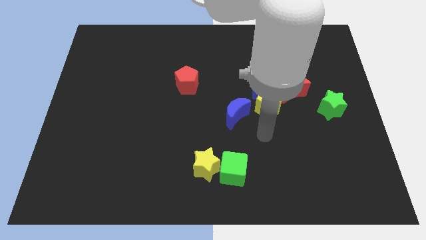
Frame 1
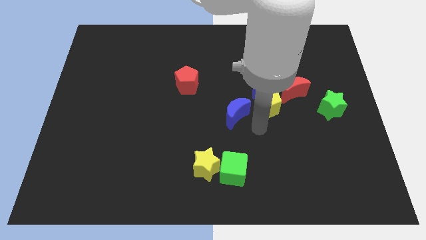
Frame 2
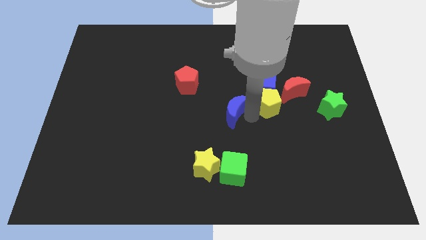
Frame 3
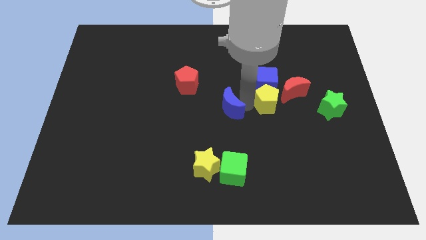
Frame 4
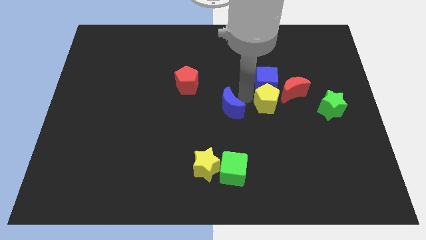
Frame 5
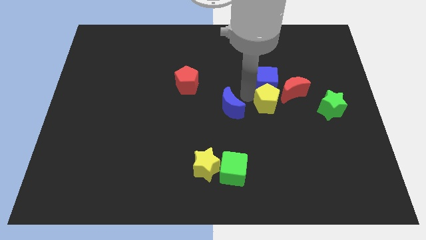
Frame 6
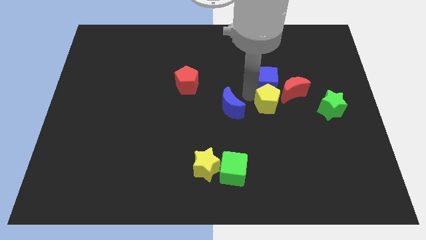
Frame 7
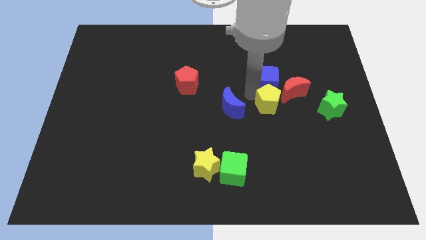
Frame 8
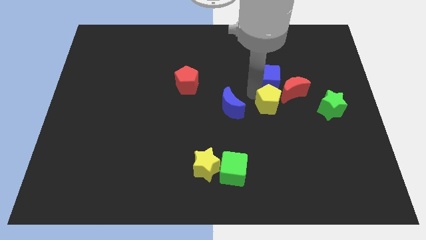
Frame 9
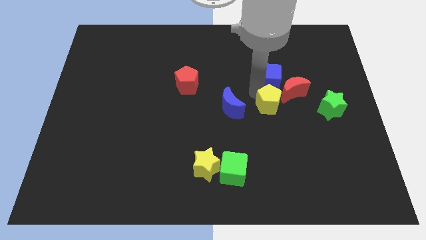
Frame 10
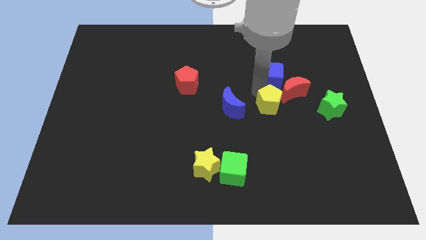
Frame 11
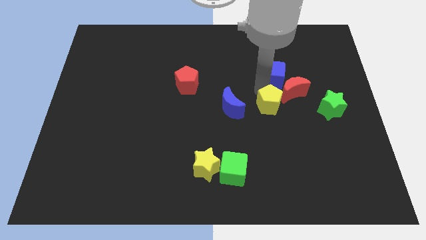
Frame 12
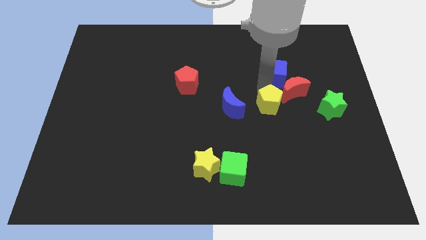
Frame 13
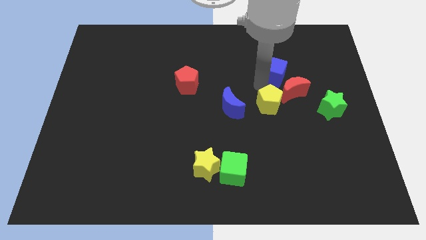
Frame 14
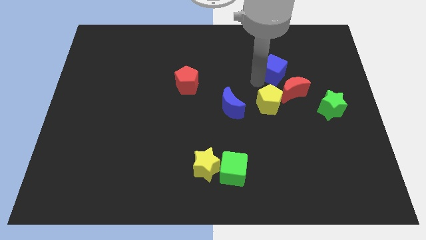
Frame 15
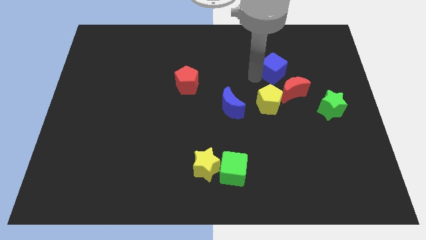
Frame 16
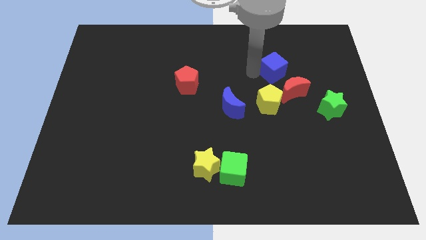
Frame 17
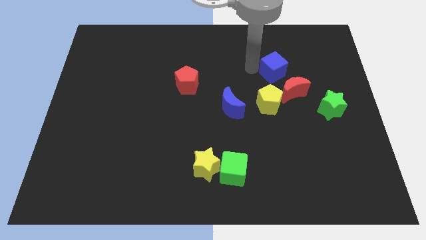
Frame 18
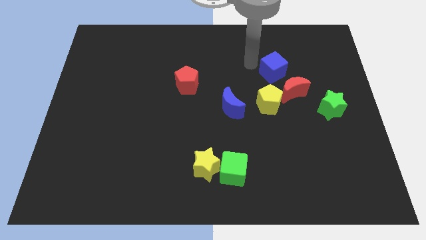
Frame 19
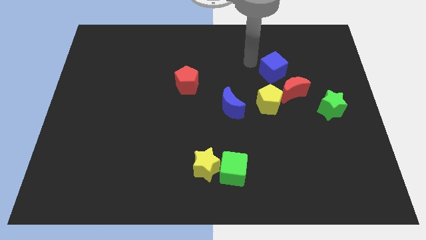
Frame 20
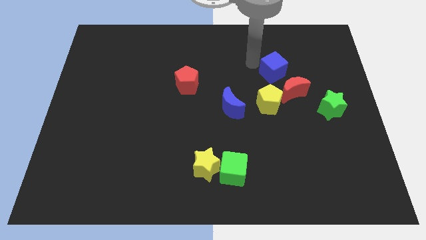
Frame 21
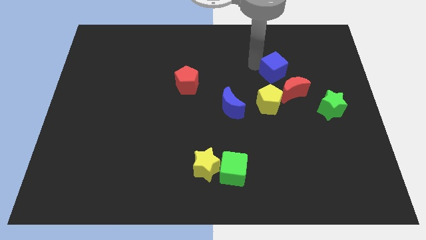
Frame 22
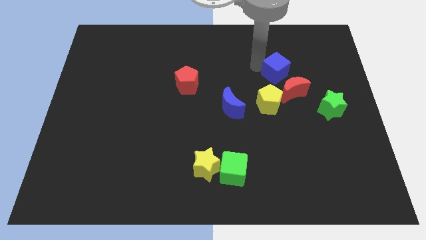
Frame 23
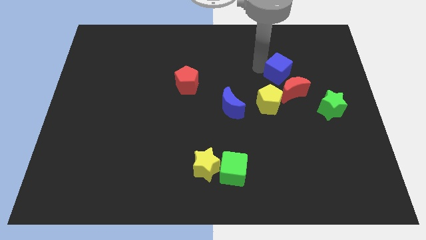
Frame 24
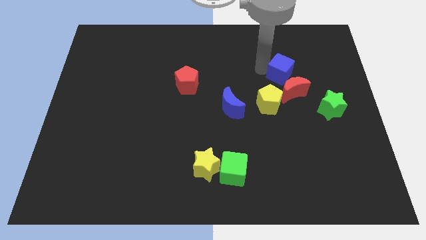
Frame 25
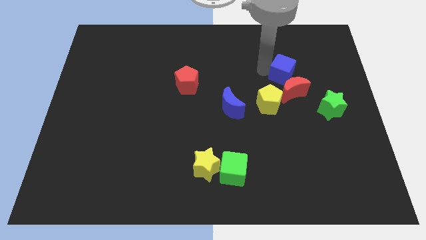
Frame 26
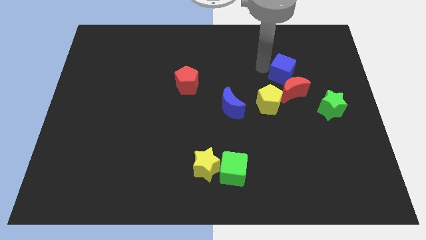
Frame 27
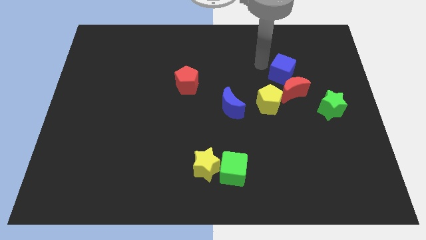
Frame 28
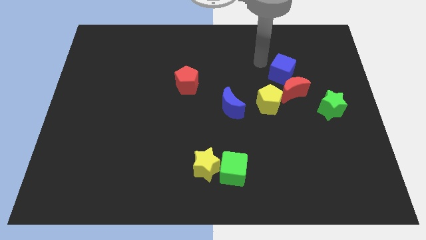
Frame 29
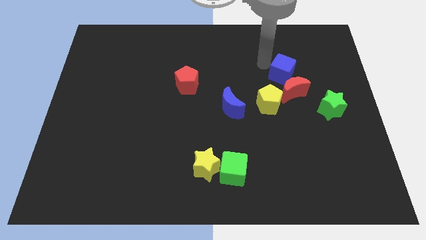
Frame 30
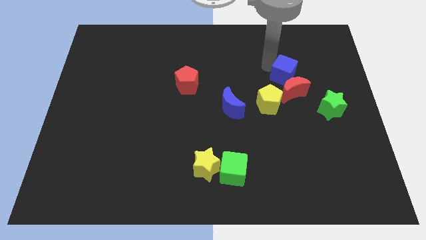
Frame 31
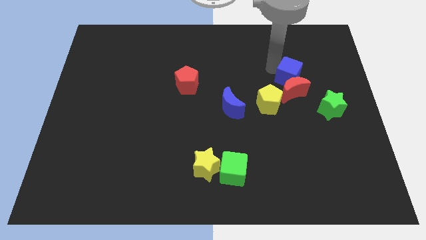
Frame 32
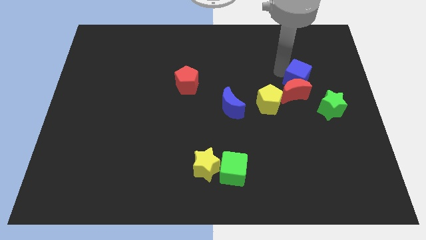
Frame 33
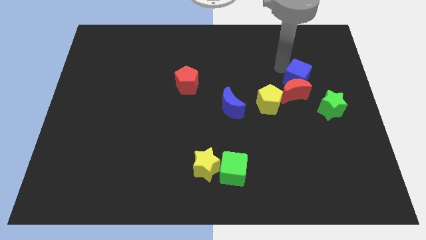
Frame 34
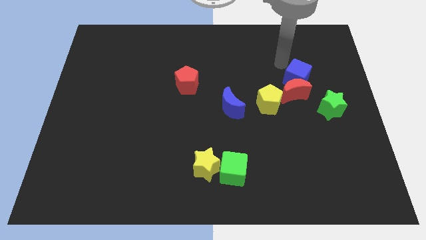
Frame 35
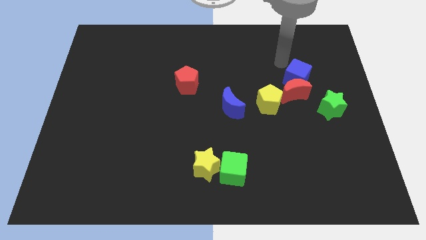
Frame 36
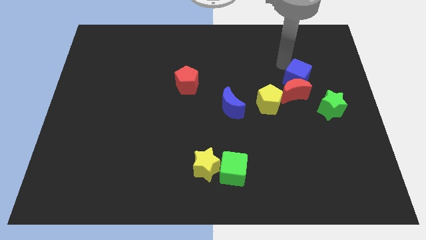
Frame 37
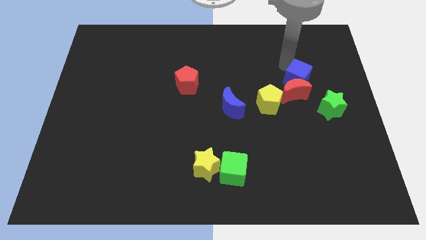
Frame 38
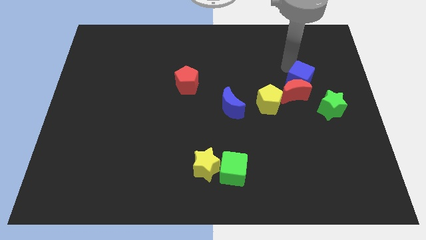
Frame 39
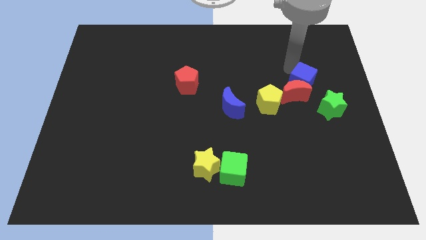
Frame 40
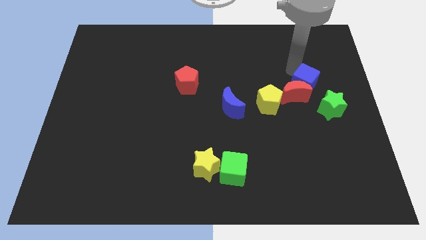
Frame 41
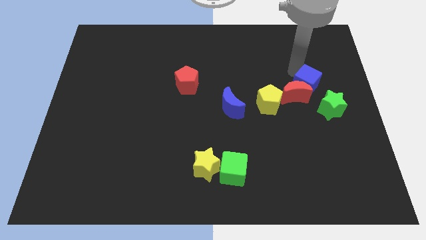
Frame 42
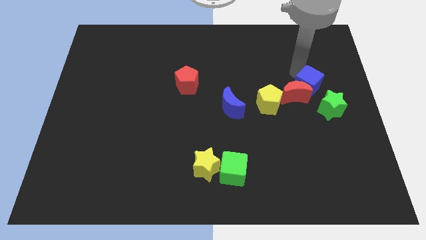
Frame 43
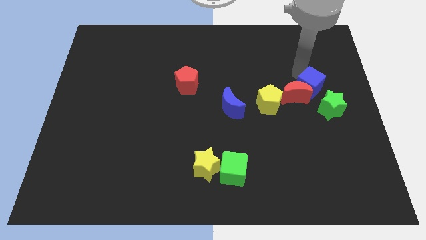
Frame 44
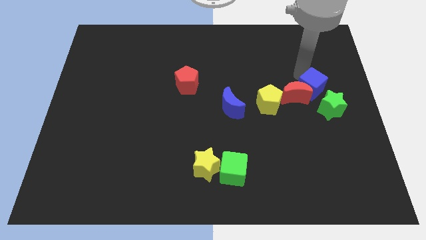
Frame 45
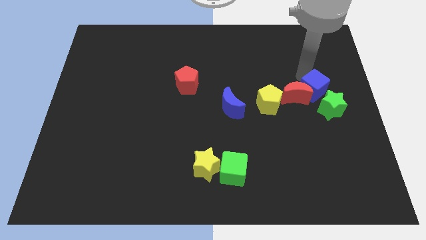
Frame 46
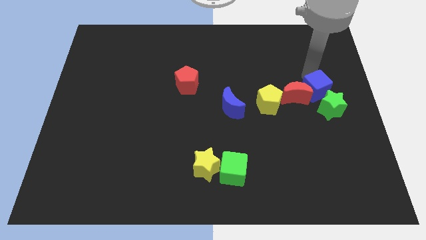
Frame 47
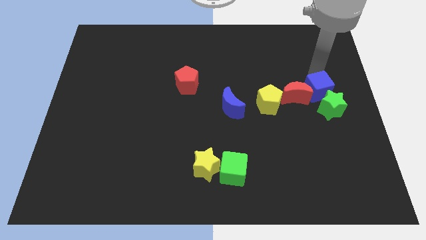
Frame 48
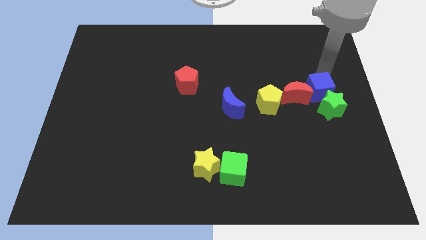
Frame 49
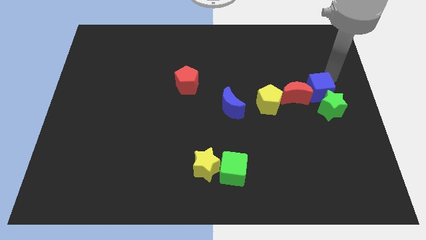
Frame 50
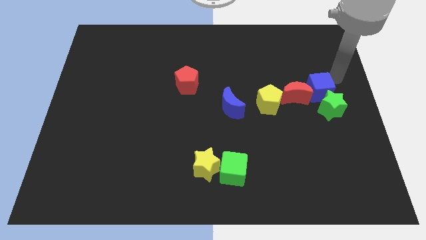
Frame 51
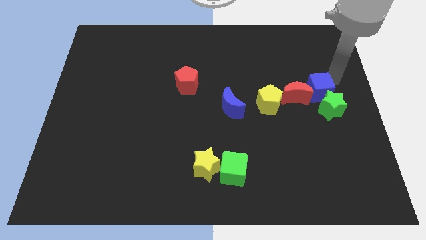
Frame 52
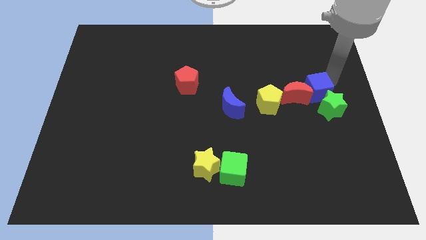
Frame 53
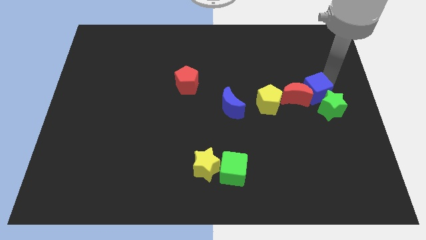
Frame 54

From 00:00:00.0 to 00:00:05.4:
move the blue cube down and to the right diagonally somewhat

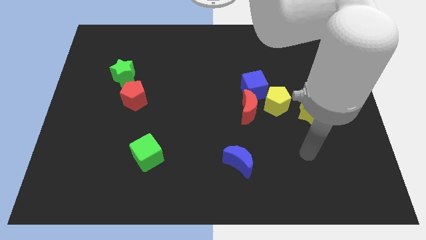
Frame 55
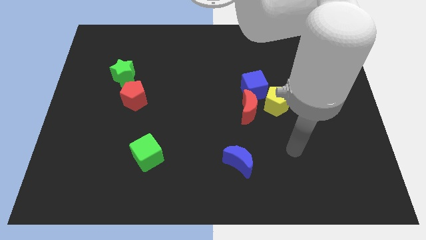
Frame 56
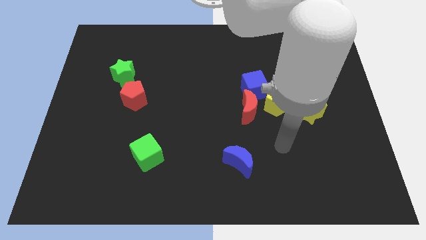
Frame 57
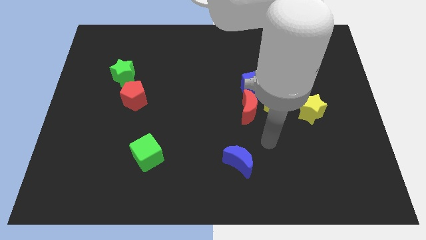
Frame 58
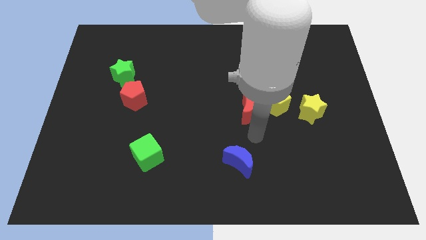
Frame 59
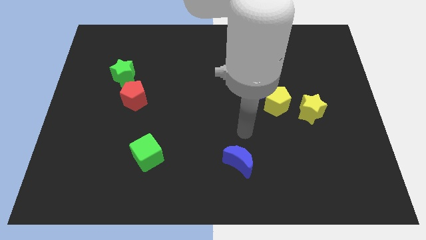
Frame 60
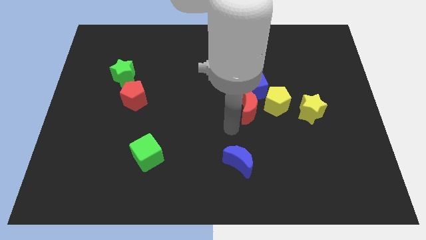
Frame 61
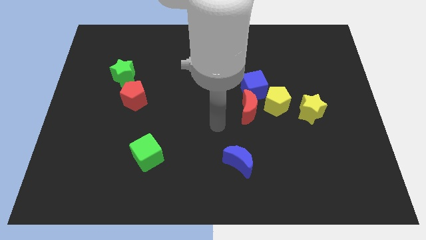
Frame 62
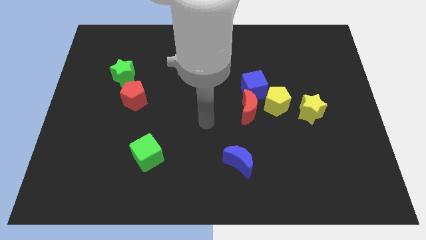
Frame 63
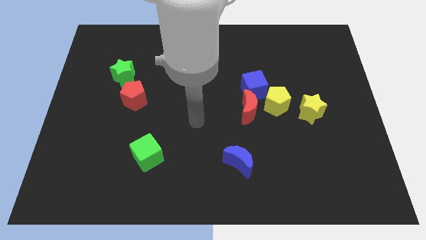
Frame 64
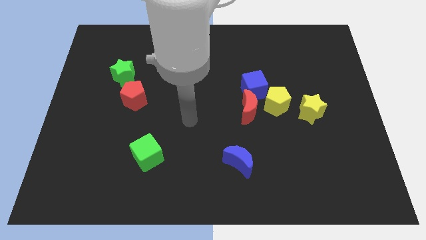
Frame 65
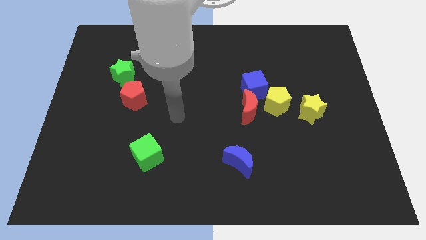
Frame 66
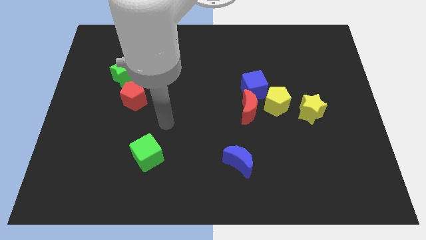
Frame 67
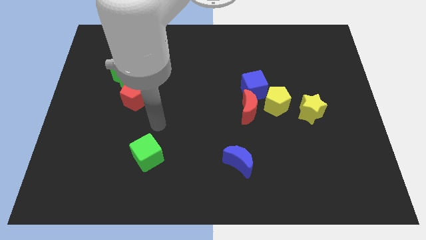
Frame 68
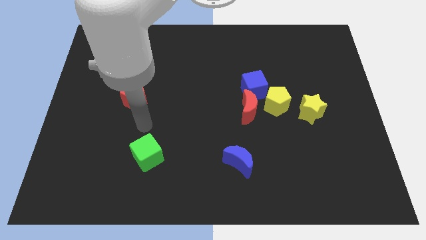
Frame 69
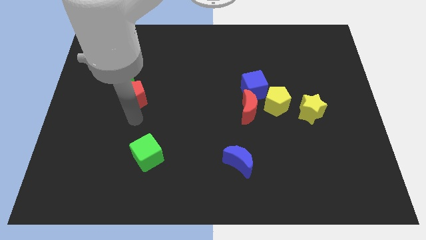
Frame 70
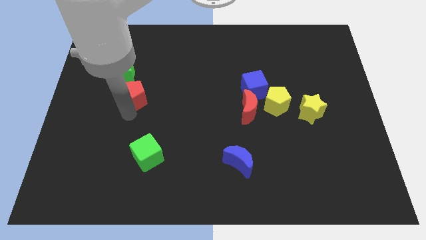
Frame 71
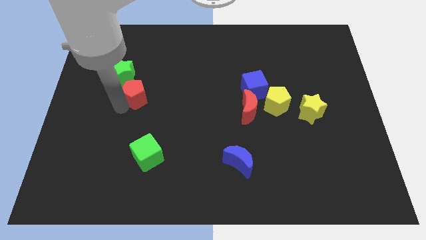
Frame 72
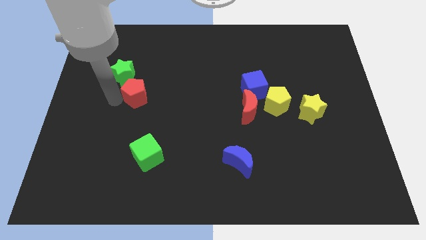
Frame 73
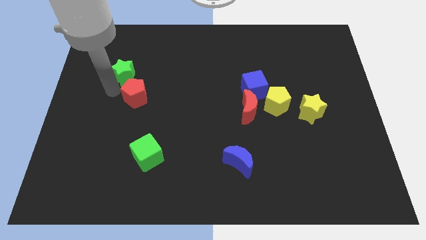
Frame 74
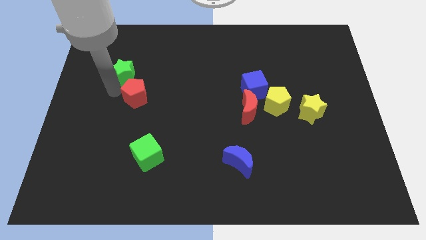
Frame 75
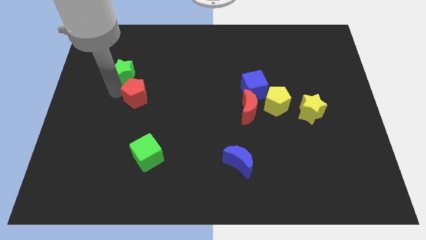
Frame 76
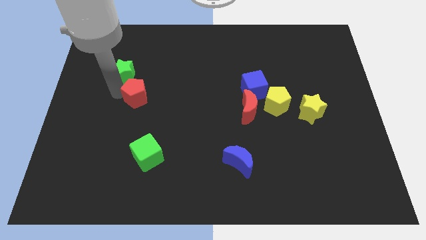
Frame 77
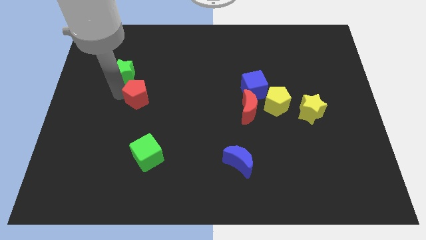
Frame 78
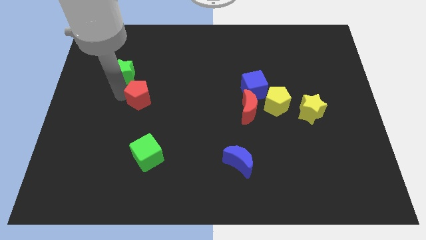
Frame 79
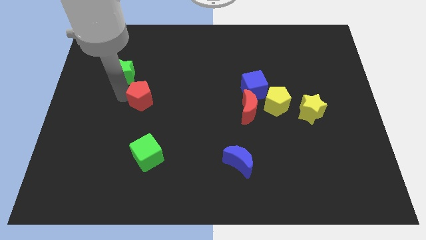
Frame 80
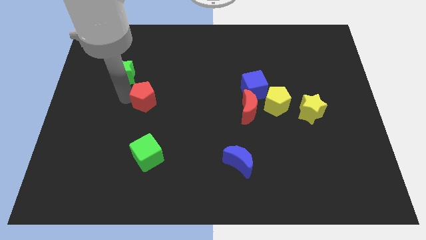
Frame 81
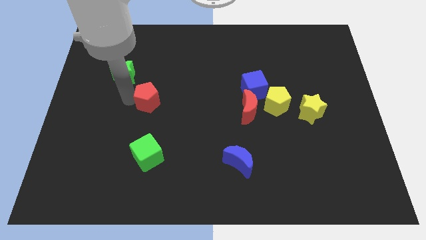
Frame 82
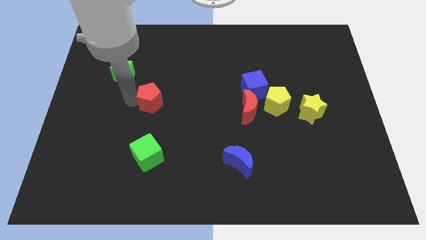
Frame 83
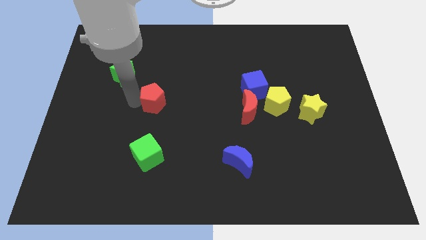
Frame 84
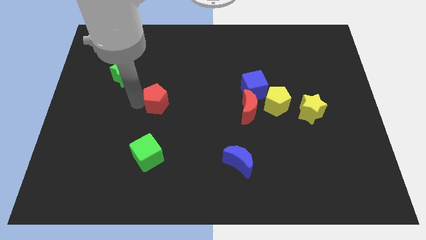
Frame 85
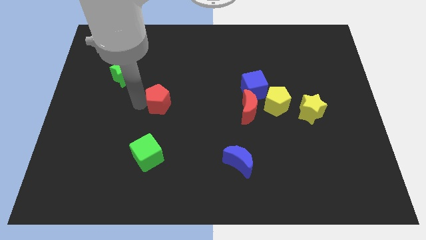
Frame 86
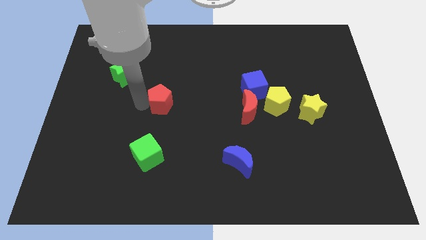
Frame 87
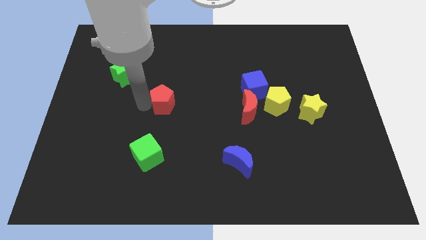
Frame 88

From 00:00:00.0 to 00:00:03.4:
move the red pentagon right a bit
